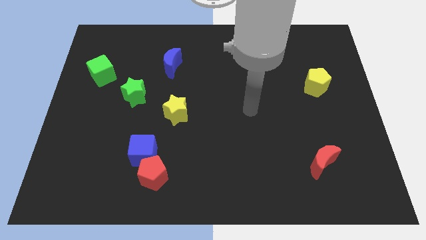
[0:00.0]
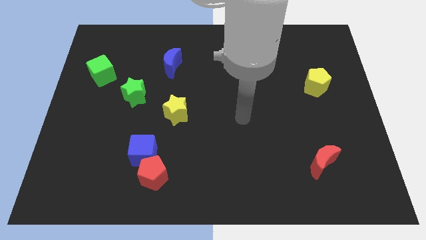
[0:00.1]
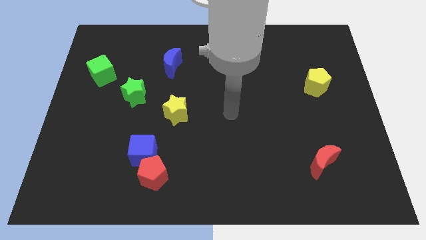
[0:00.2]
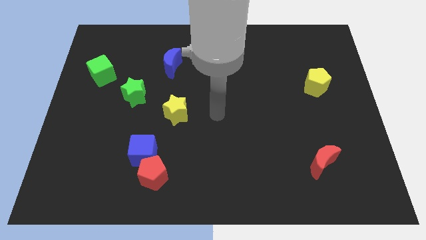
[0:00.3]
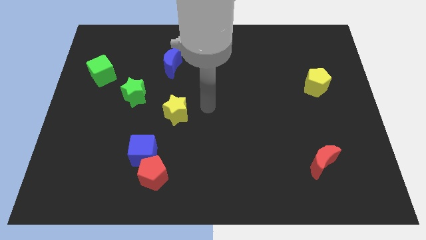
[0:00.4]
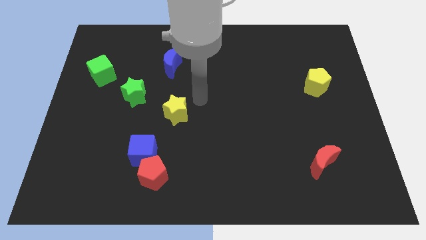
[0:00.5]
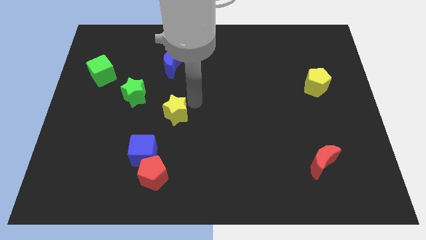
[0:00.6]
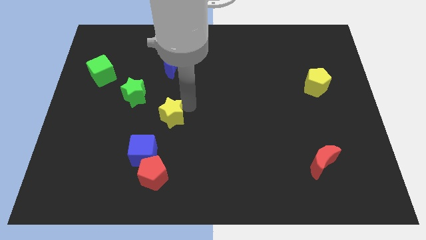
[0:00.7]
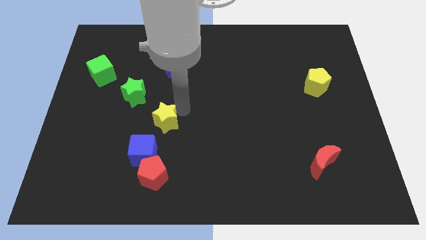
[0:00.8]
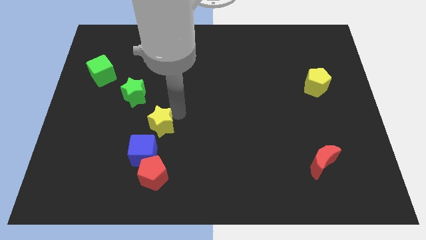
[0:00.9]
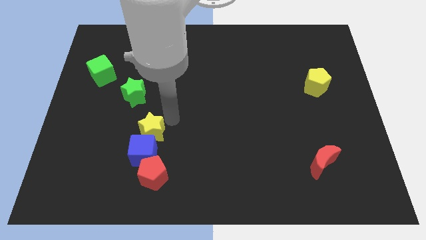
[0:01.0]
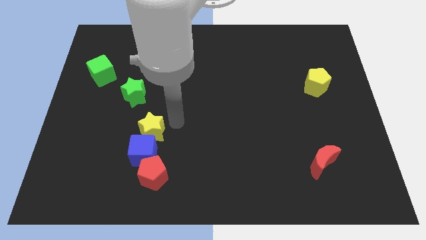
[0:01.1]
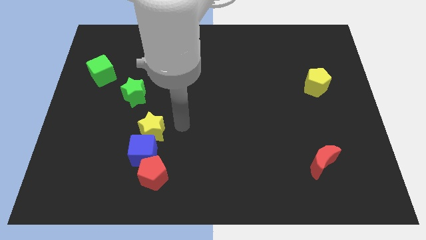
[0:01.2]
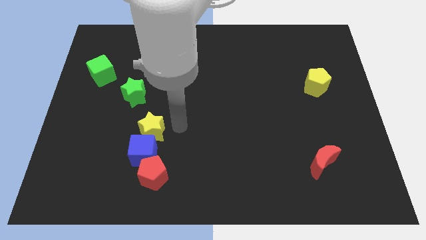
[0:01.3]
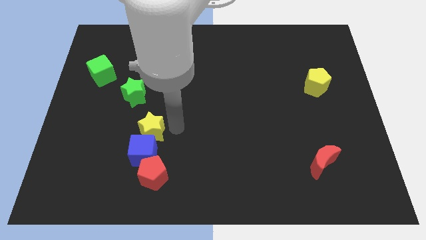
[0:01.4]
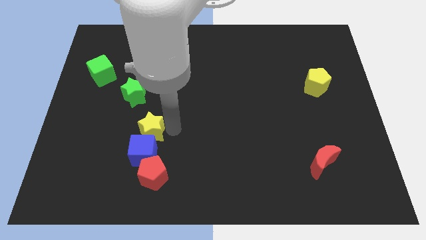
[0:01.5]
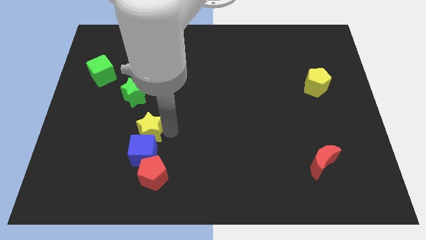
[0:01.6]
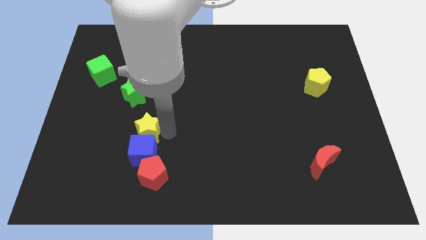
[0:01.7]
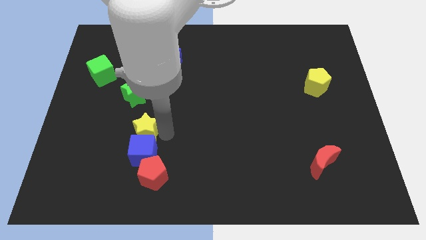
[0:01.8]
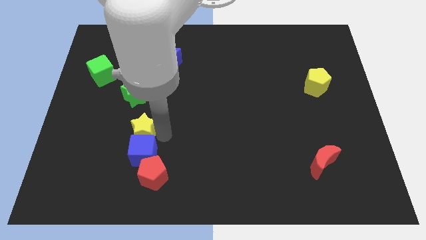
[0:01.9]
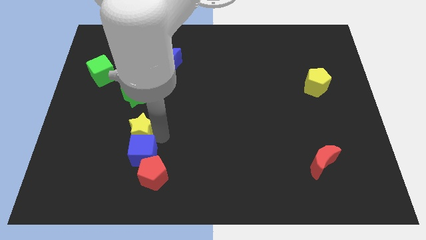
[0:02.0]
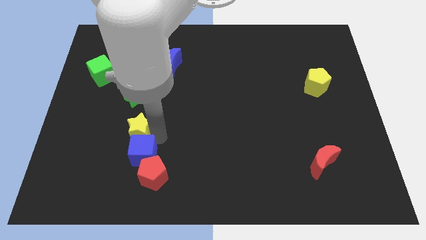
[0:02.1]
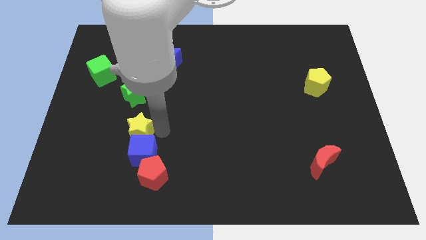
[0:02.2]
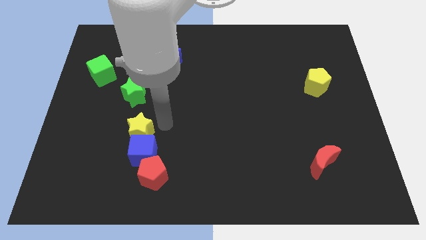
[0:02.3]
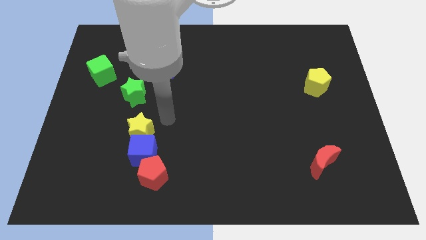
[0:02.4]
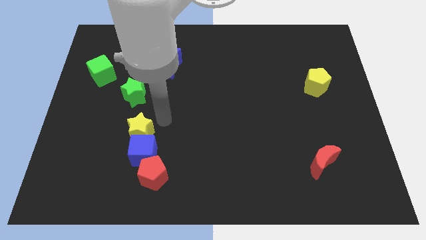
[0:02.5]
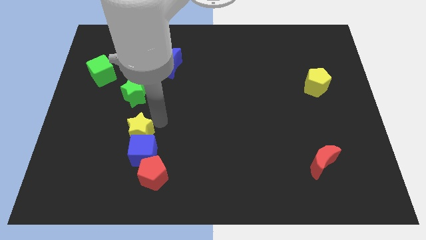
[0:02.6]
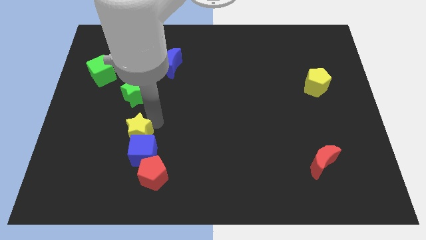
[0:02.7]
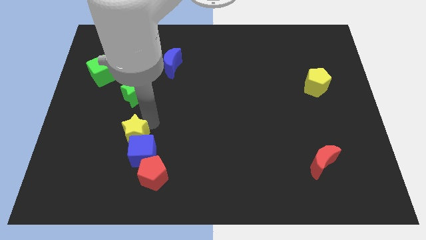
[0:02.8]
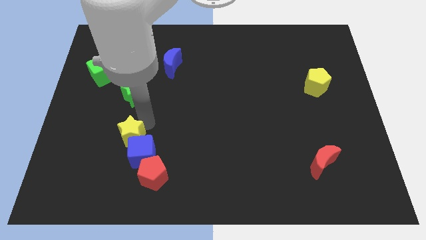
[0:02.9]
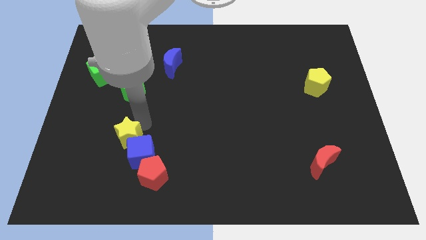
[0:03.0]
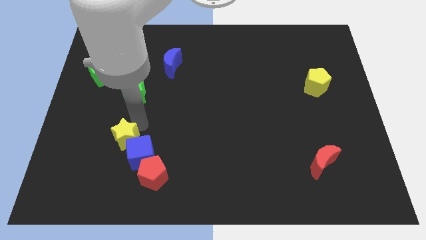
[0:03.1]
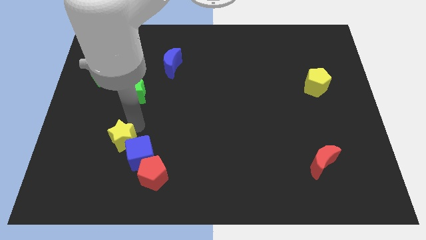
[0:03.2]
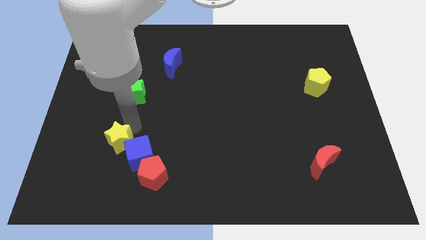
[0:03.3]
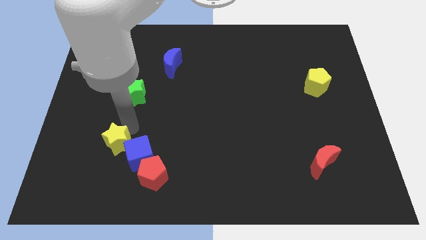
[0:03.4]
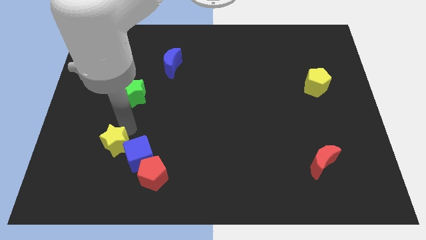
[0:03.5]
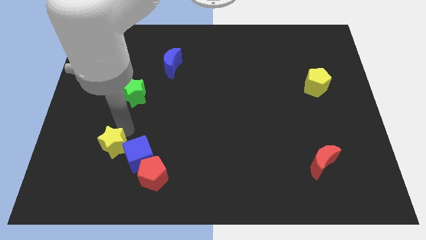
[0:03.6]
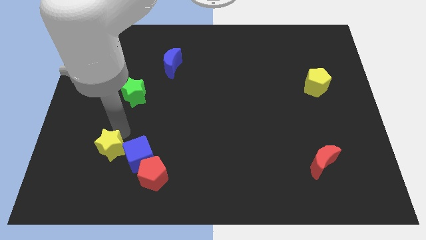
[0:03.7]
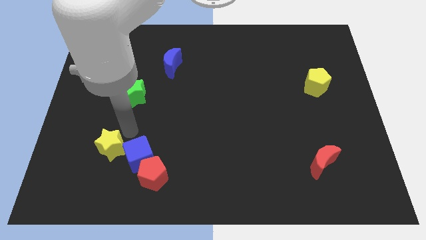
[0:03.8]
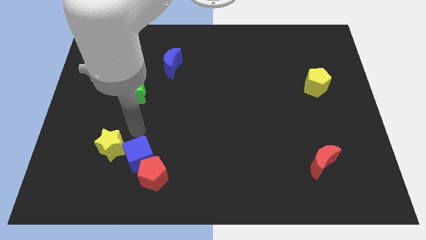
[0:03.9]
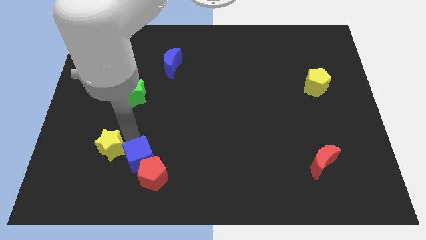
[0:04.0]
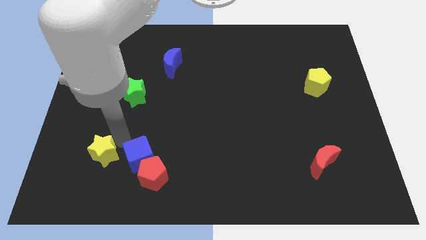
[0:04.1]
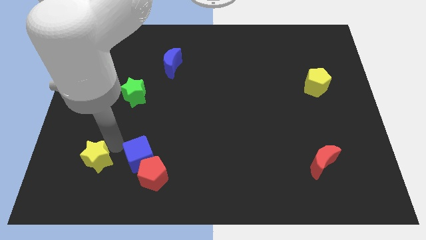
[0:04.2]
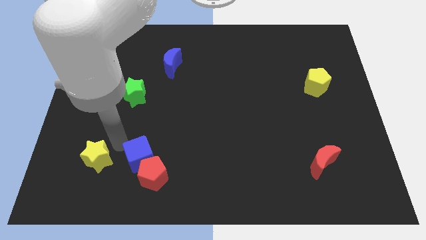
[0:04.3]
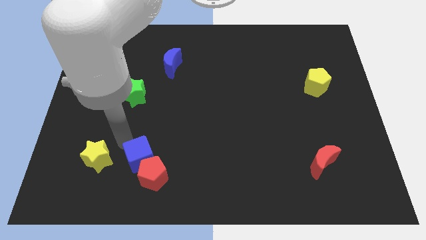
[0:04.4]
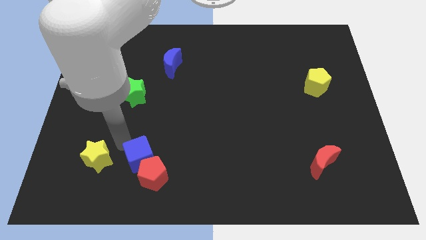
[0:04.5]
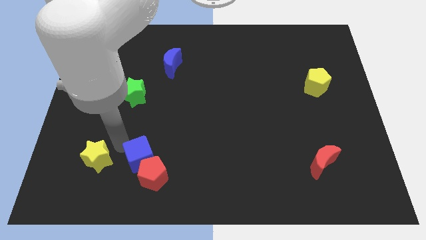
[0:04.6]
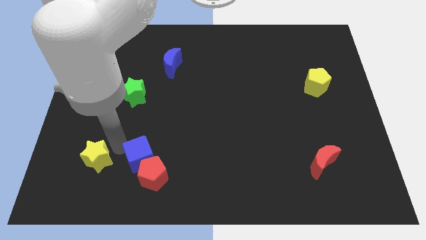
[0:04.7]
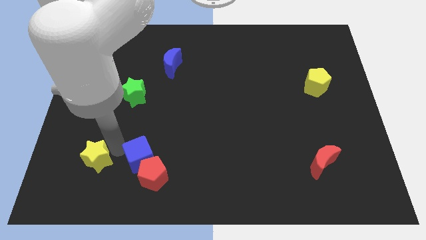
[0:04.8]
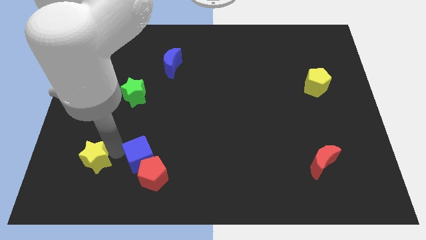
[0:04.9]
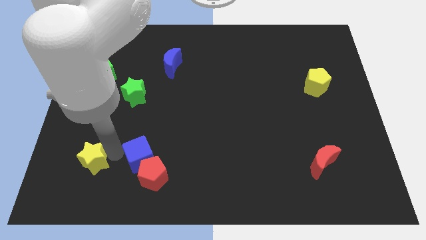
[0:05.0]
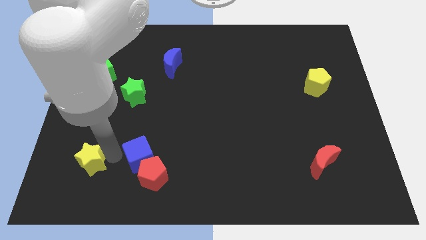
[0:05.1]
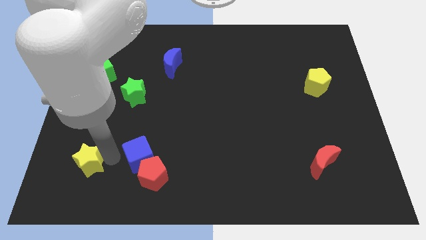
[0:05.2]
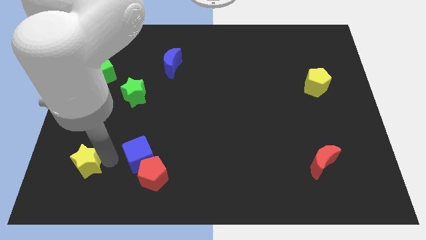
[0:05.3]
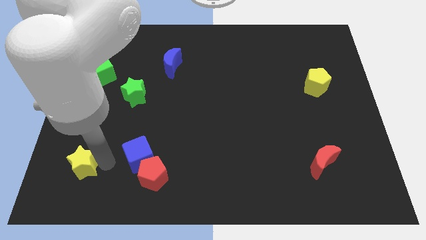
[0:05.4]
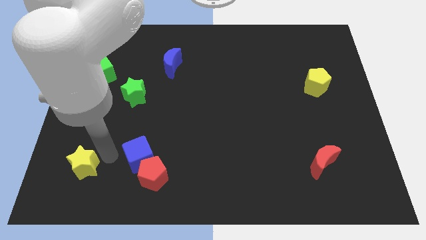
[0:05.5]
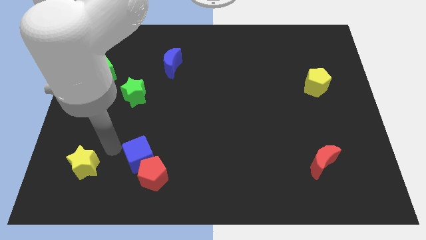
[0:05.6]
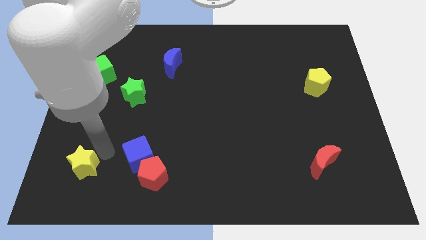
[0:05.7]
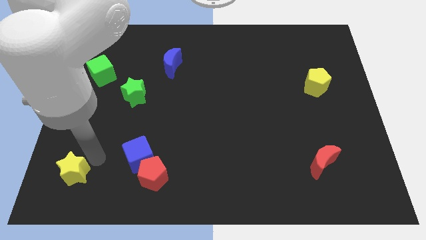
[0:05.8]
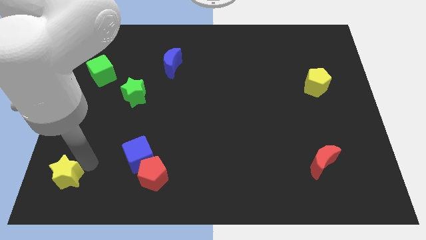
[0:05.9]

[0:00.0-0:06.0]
move the yellow star to the bottom left corner
